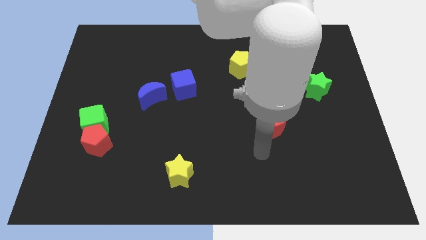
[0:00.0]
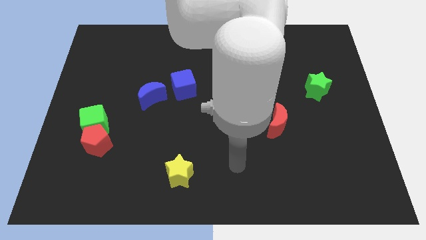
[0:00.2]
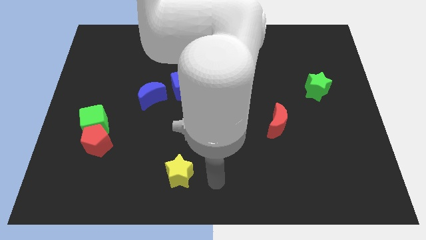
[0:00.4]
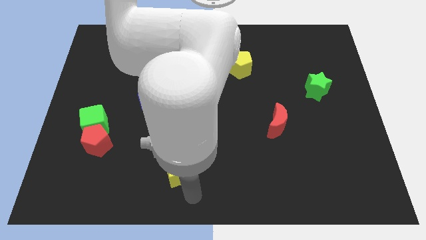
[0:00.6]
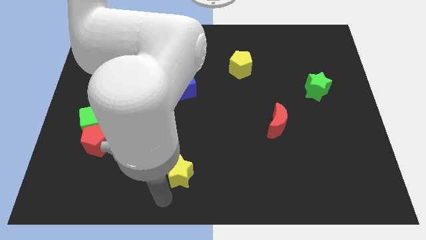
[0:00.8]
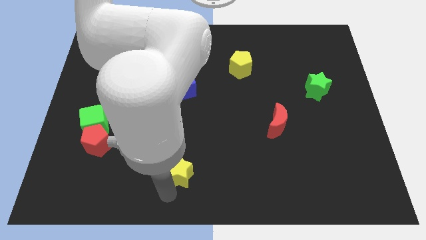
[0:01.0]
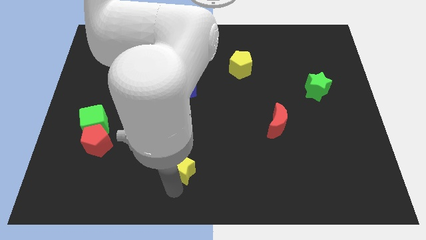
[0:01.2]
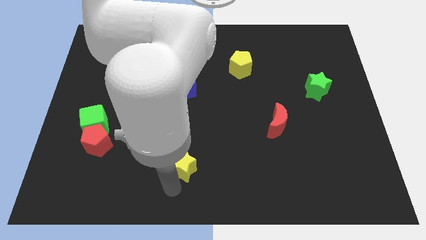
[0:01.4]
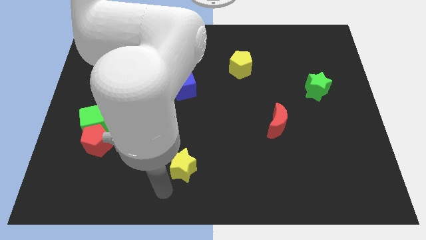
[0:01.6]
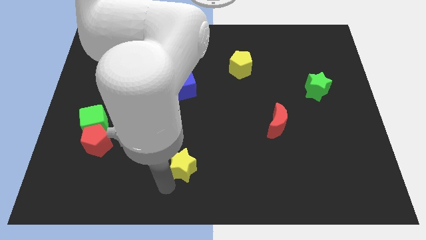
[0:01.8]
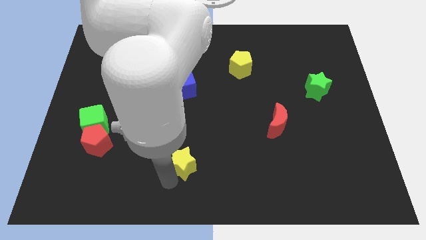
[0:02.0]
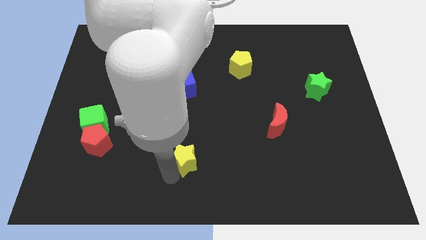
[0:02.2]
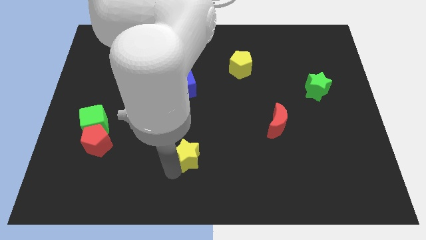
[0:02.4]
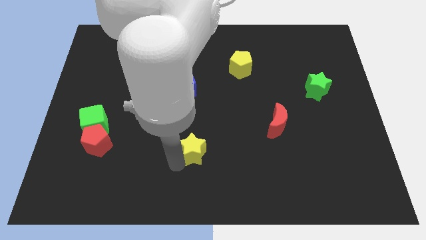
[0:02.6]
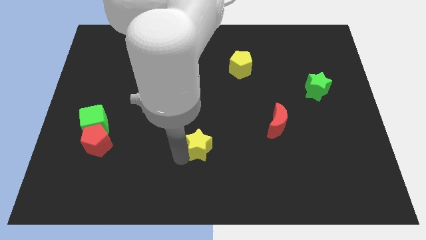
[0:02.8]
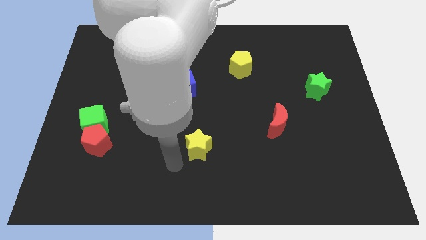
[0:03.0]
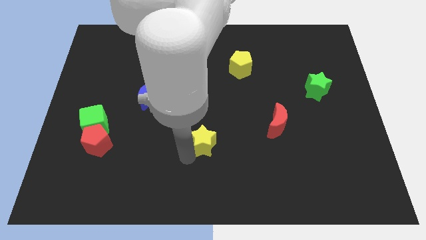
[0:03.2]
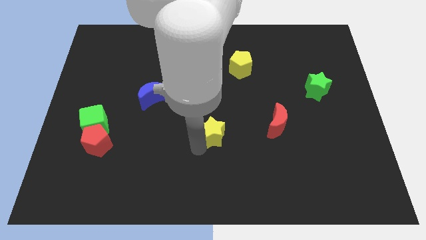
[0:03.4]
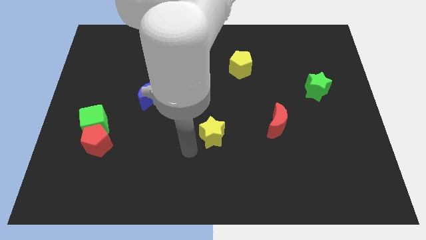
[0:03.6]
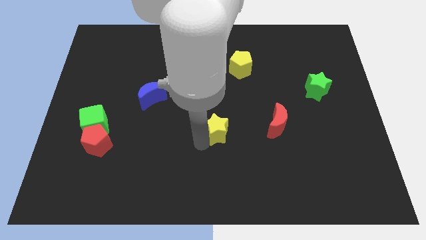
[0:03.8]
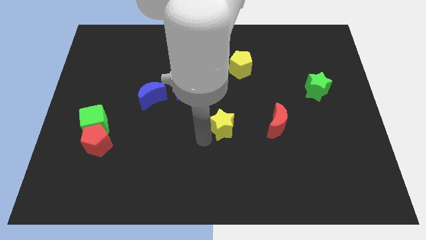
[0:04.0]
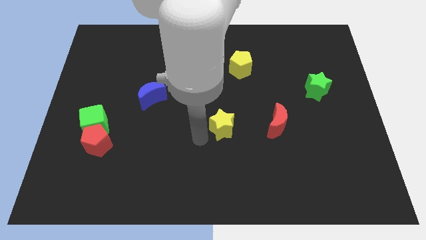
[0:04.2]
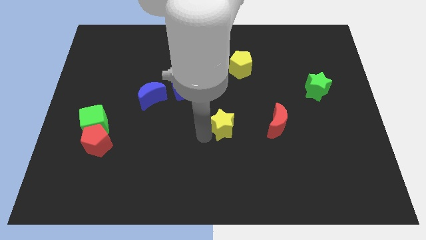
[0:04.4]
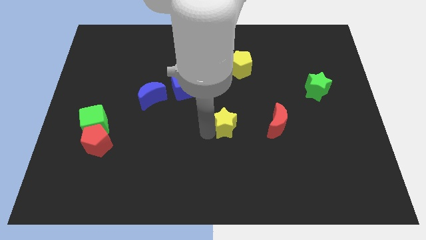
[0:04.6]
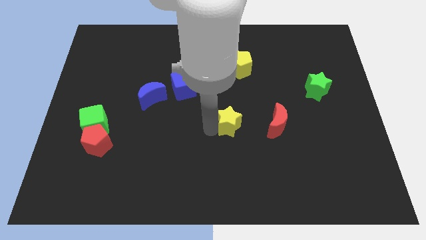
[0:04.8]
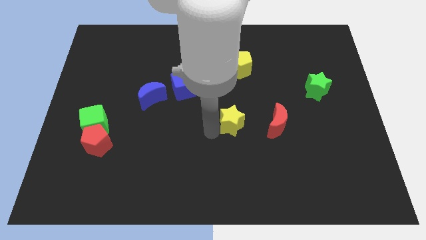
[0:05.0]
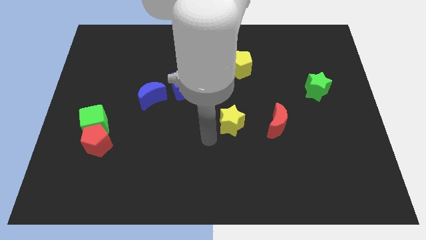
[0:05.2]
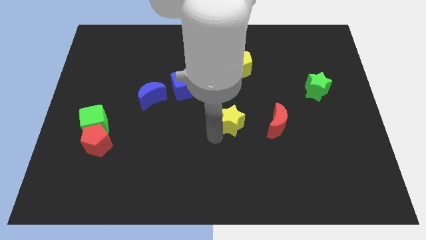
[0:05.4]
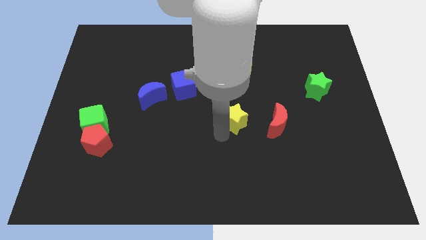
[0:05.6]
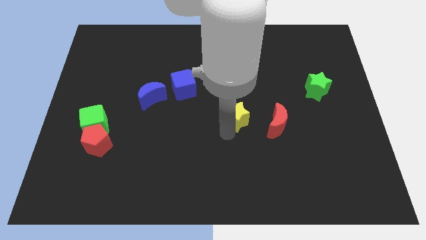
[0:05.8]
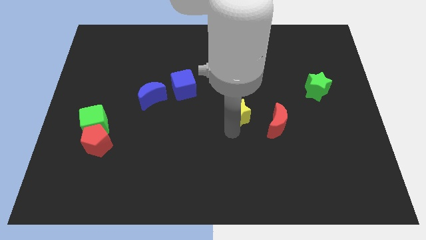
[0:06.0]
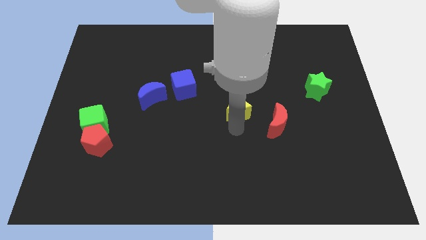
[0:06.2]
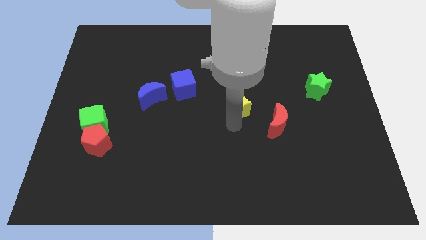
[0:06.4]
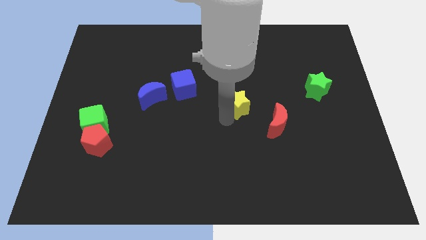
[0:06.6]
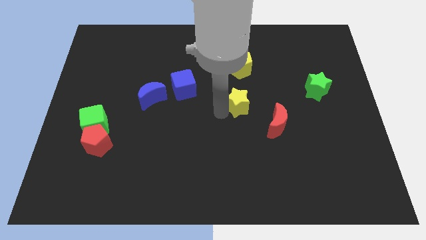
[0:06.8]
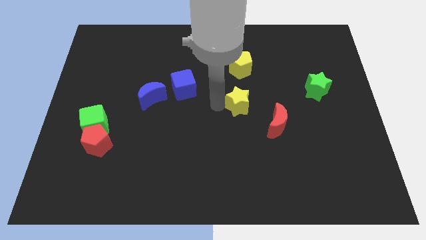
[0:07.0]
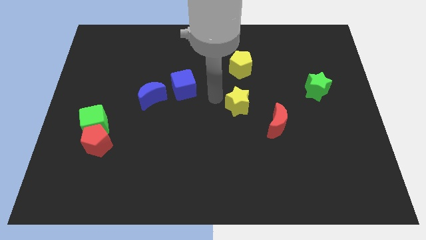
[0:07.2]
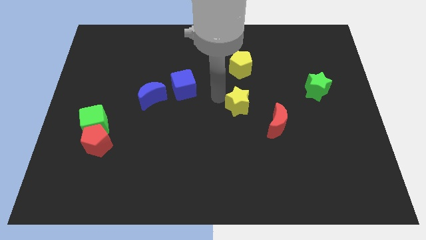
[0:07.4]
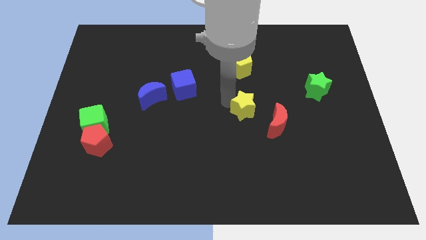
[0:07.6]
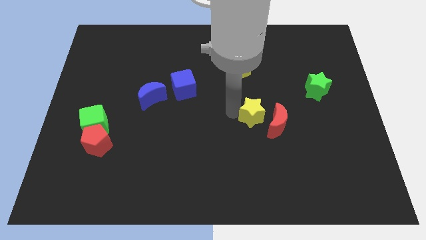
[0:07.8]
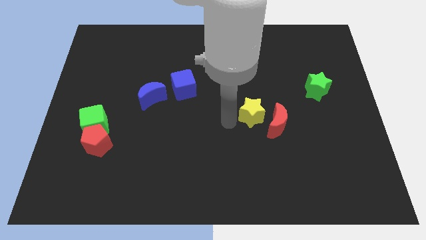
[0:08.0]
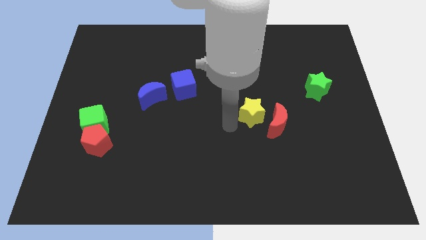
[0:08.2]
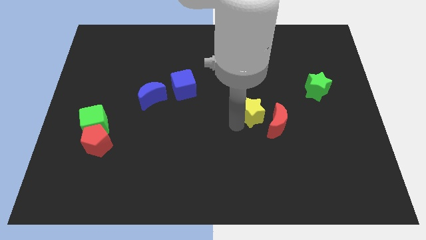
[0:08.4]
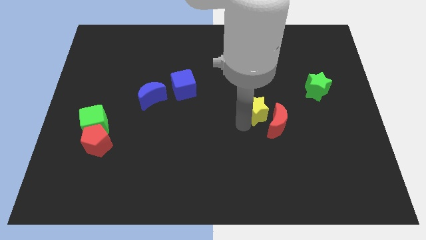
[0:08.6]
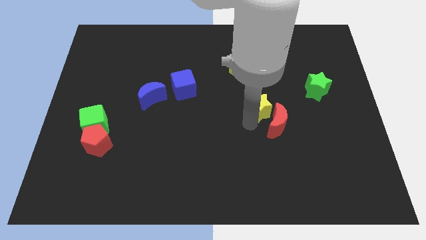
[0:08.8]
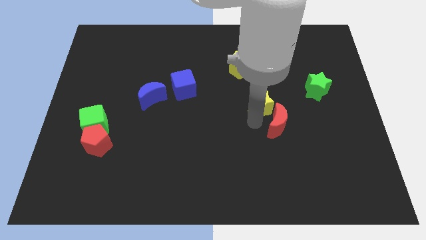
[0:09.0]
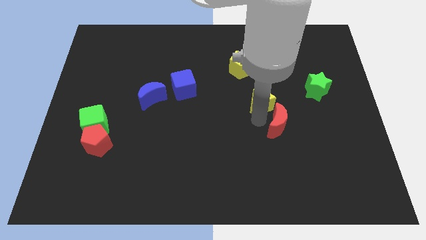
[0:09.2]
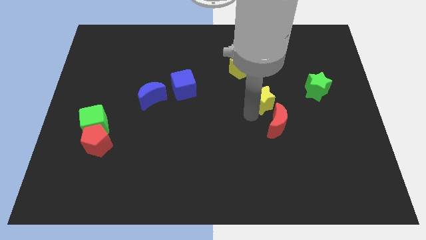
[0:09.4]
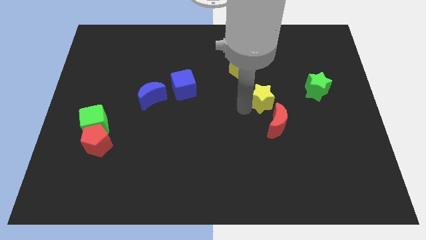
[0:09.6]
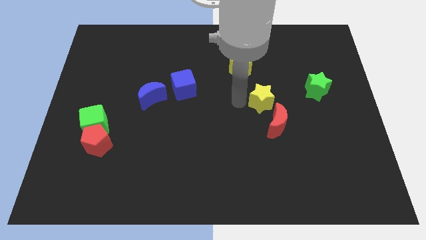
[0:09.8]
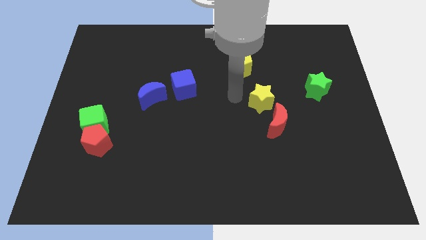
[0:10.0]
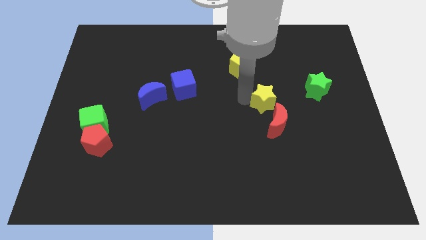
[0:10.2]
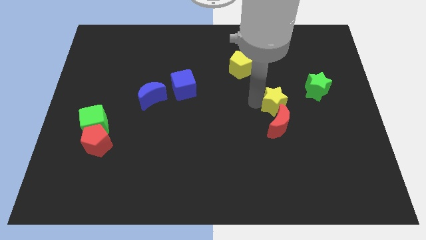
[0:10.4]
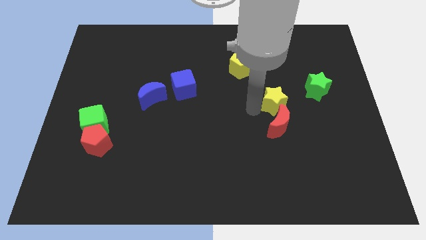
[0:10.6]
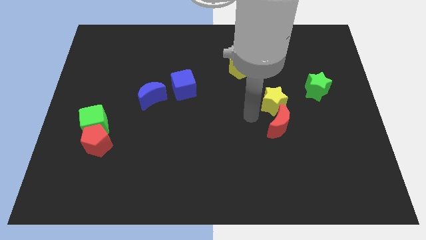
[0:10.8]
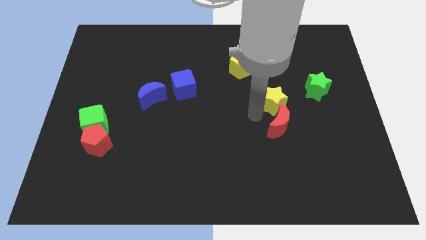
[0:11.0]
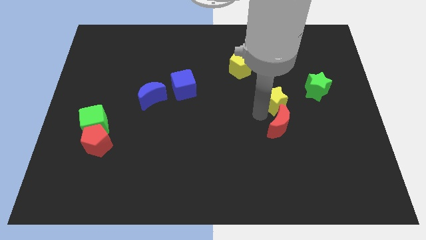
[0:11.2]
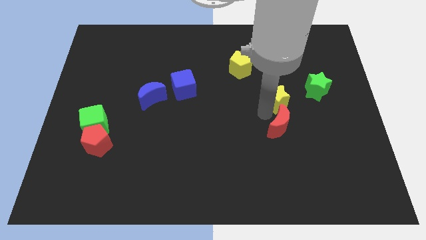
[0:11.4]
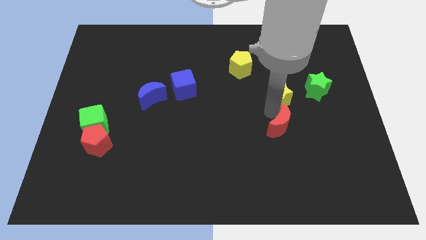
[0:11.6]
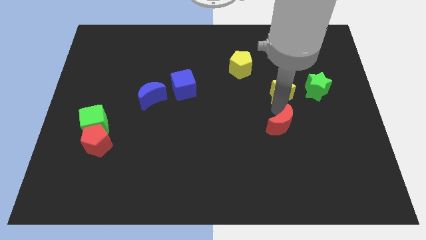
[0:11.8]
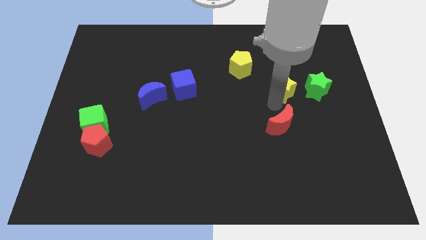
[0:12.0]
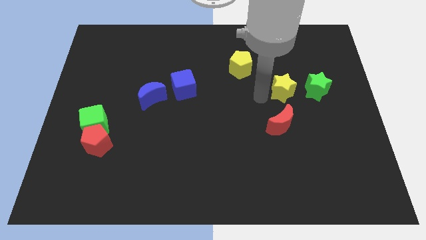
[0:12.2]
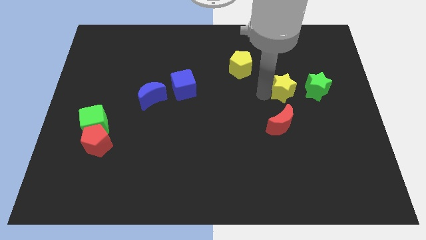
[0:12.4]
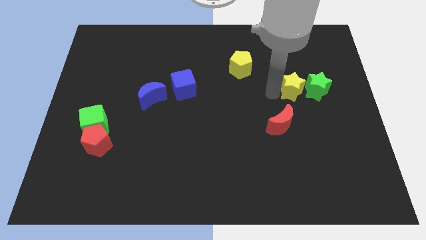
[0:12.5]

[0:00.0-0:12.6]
slide the yellow star towards the green star

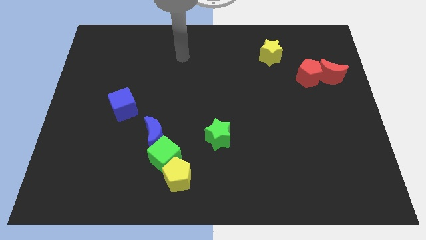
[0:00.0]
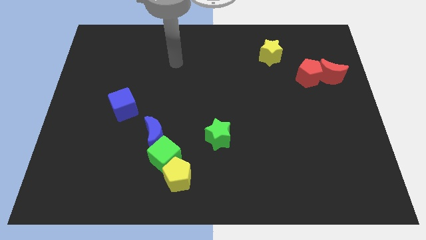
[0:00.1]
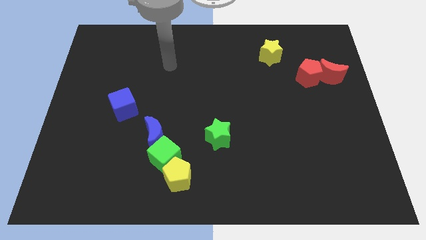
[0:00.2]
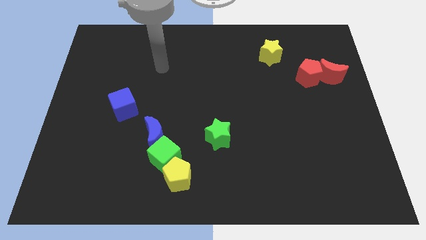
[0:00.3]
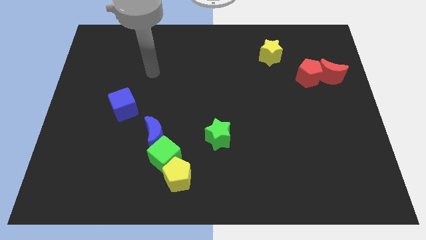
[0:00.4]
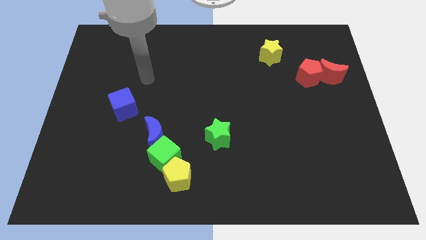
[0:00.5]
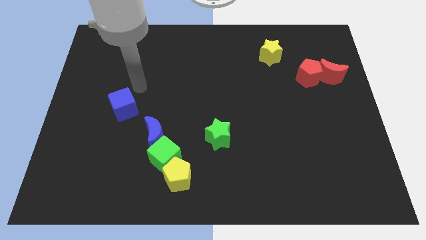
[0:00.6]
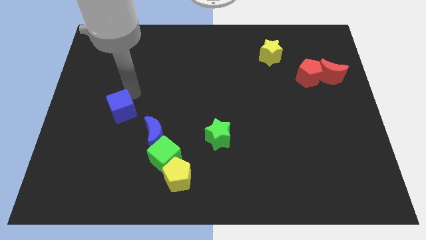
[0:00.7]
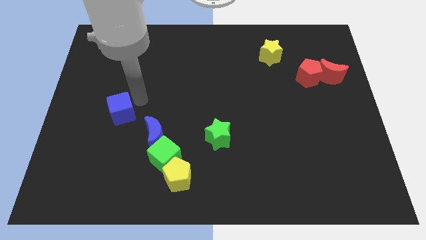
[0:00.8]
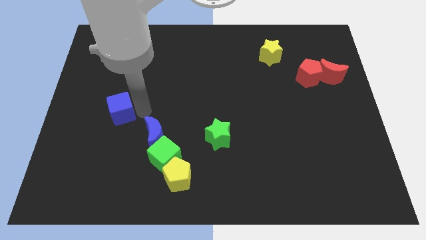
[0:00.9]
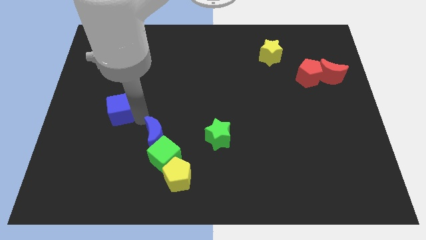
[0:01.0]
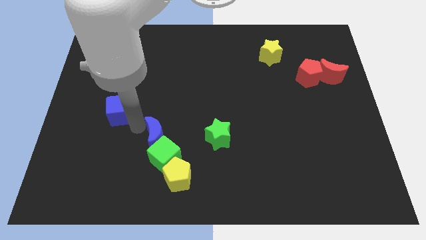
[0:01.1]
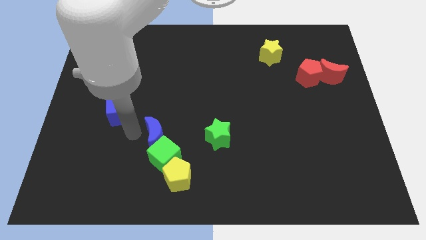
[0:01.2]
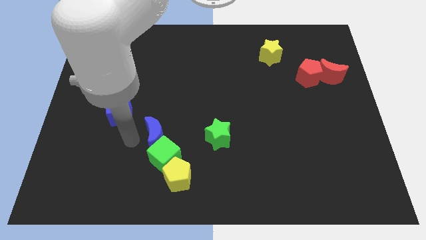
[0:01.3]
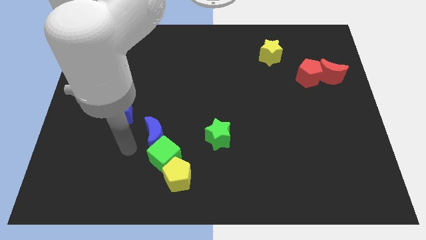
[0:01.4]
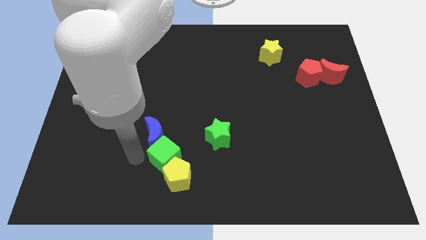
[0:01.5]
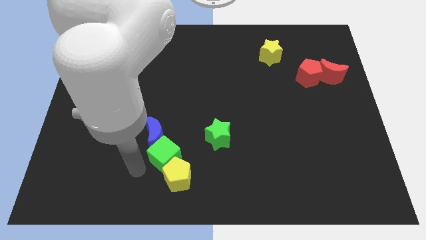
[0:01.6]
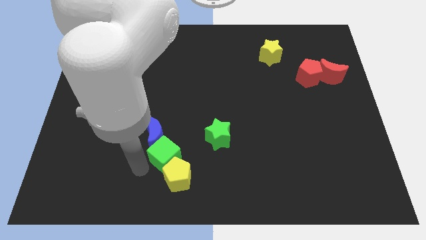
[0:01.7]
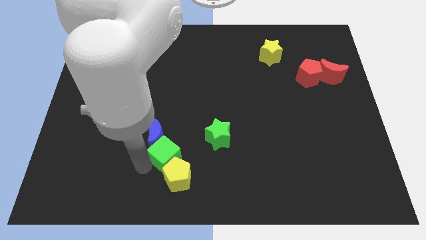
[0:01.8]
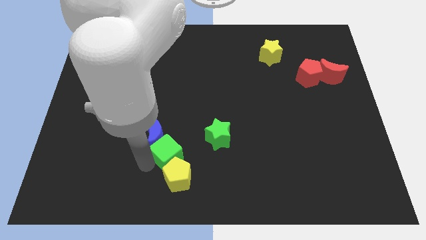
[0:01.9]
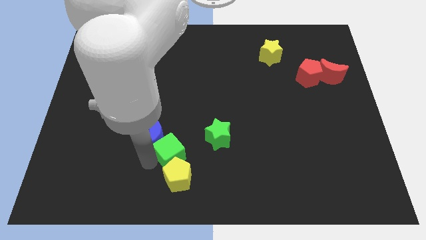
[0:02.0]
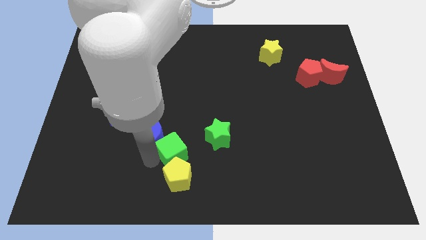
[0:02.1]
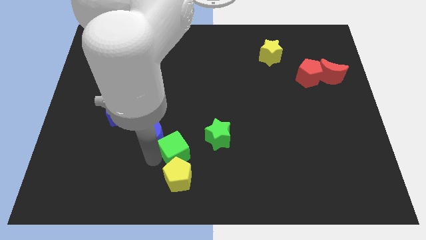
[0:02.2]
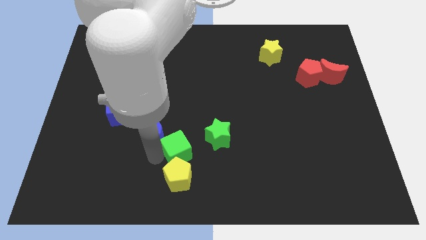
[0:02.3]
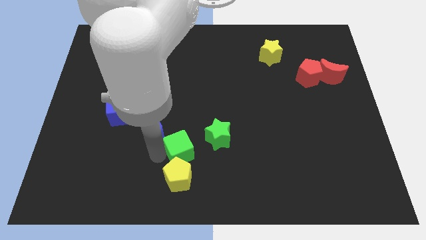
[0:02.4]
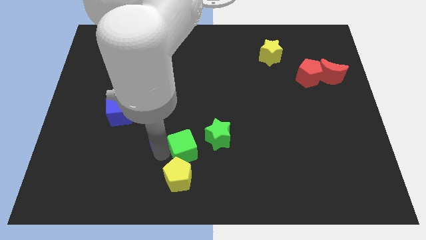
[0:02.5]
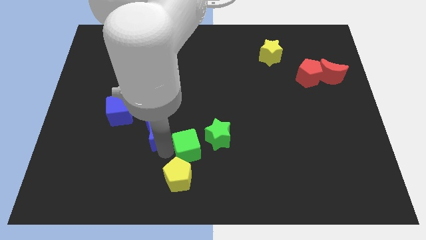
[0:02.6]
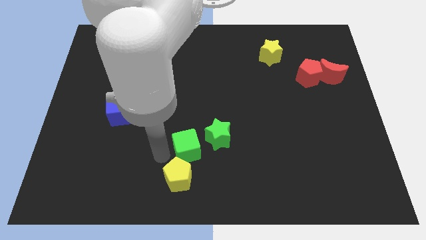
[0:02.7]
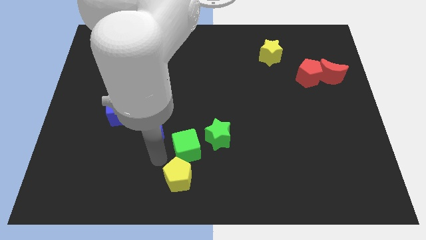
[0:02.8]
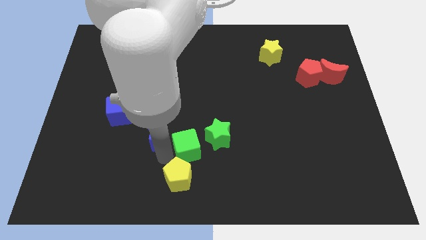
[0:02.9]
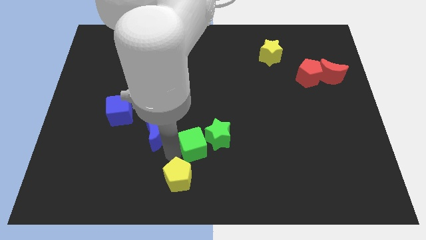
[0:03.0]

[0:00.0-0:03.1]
move the green cube towards the green star
